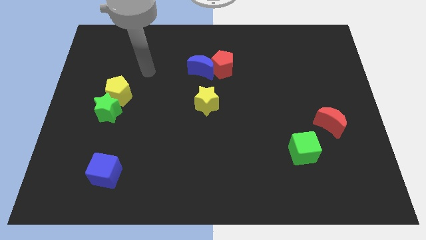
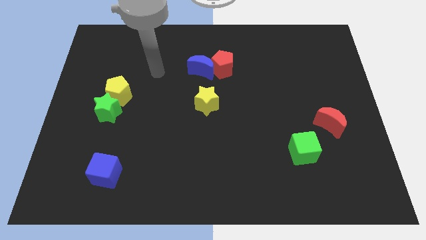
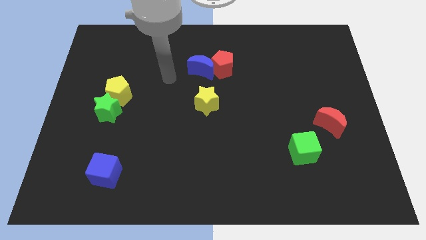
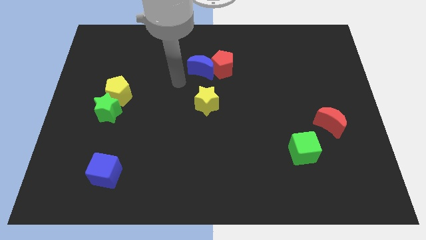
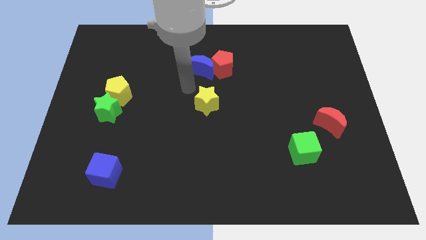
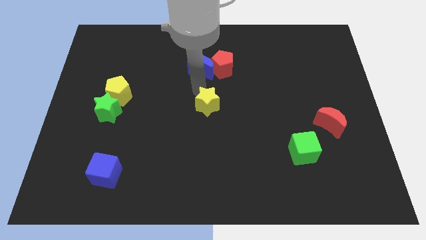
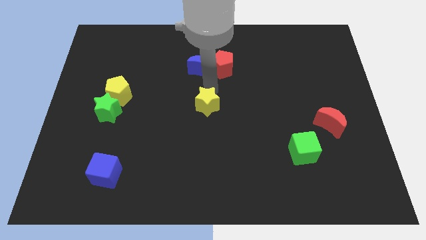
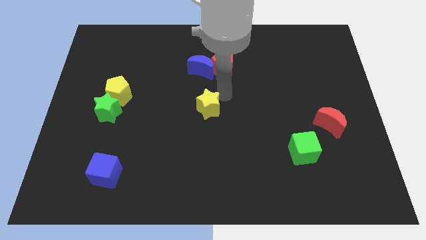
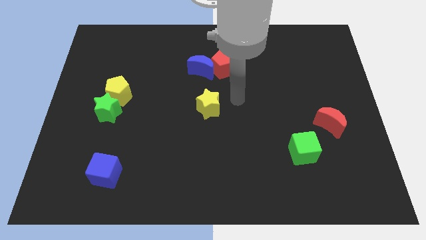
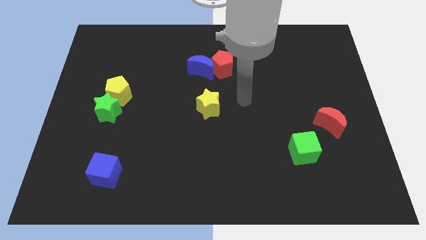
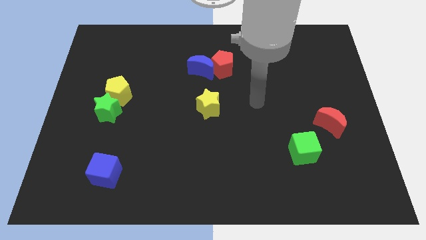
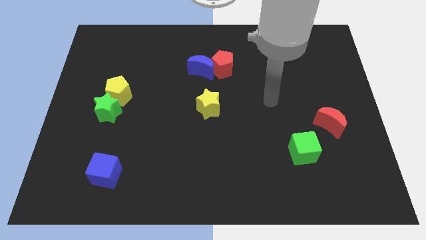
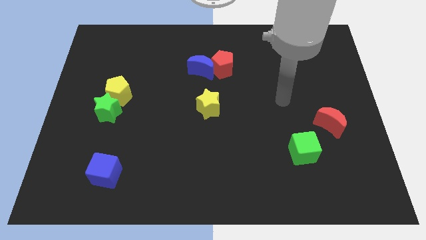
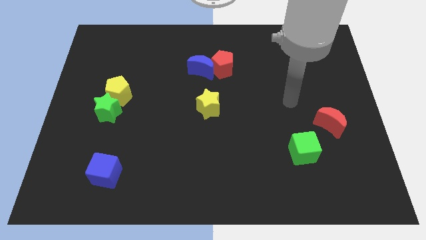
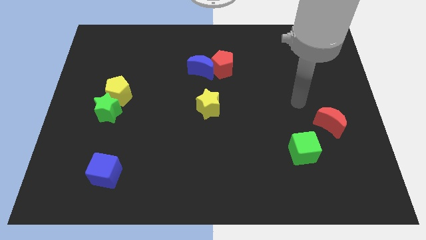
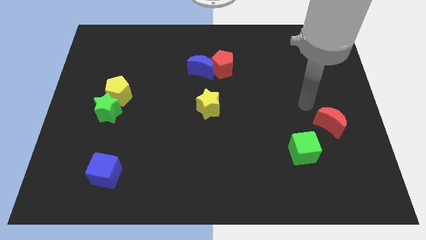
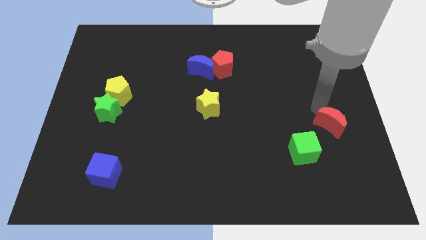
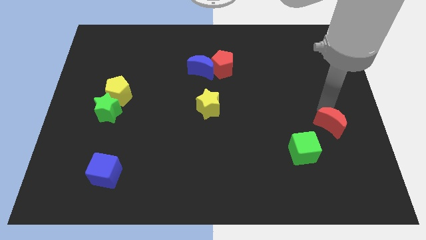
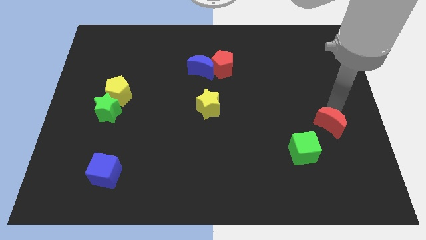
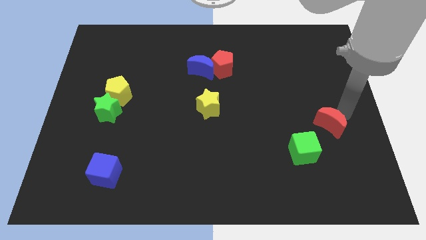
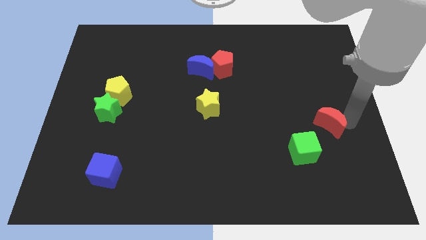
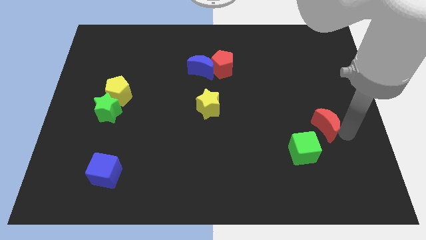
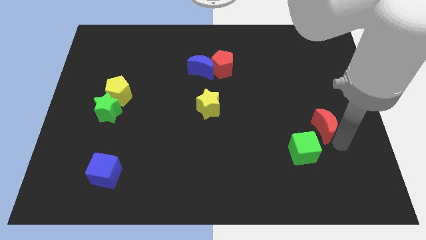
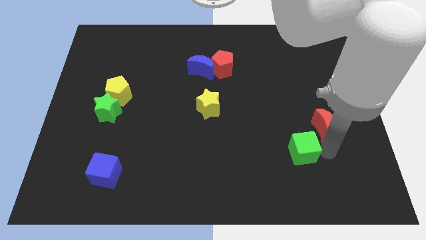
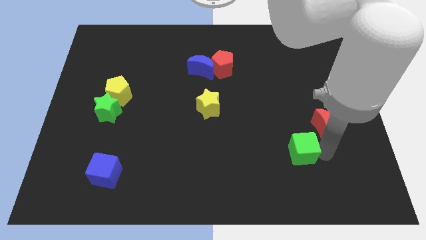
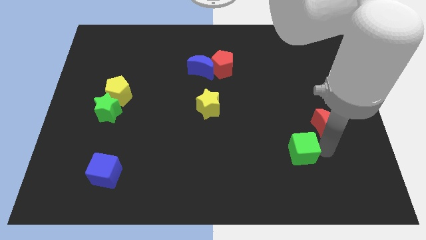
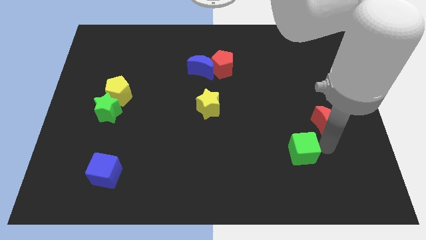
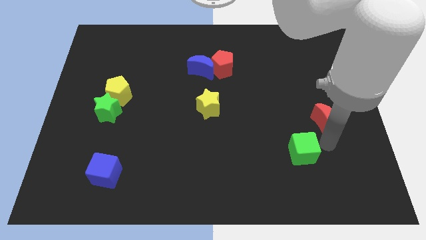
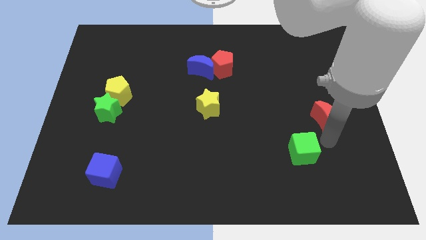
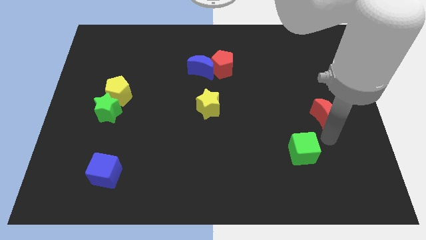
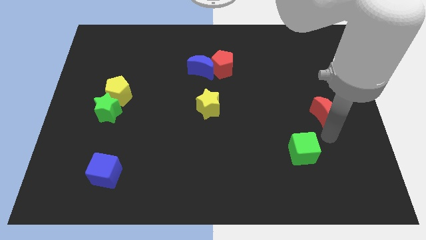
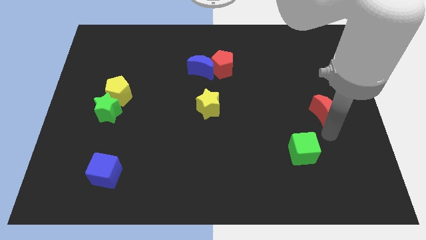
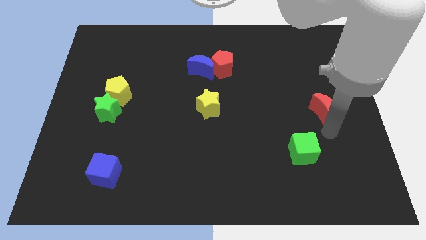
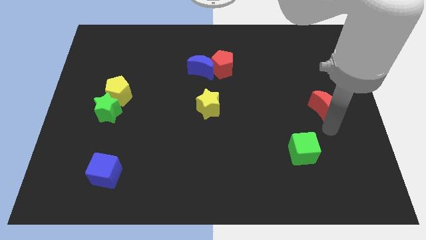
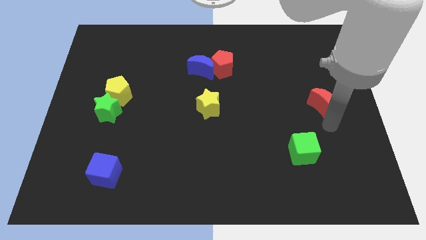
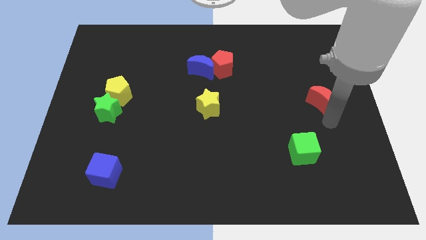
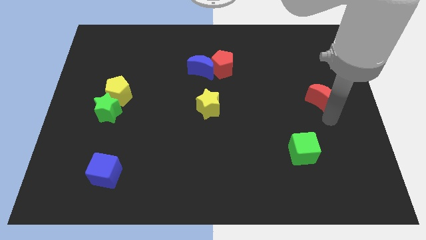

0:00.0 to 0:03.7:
move the red moon up a bit

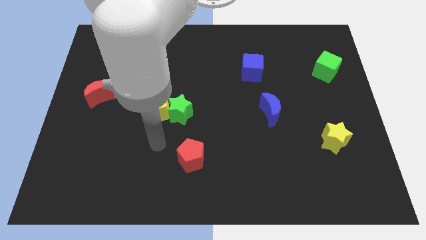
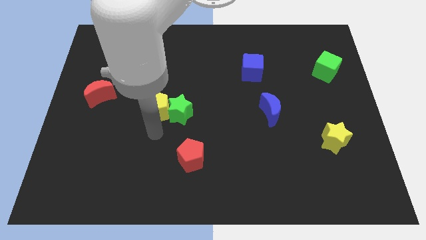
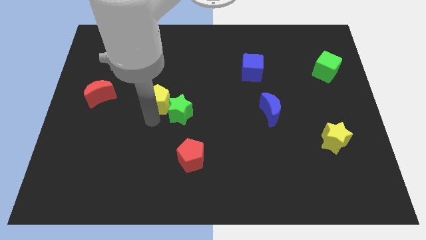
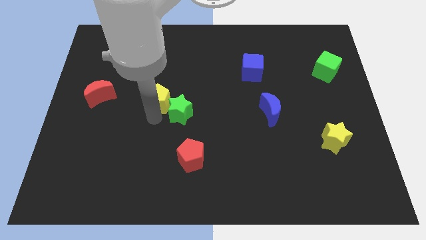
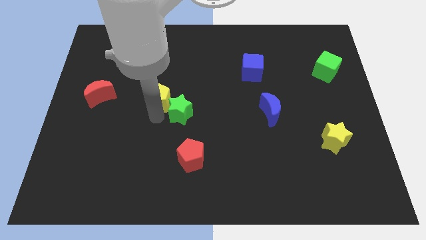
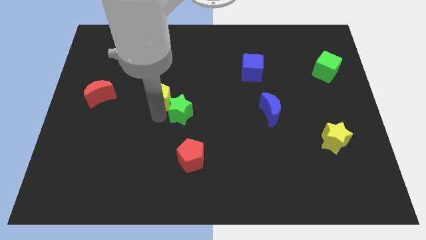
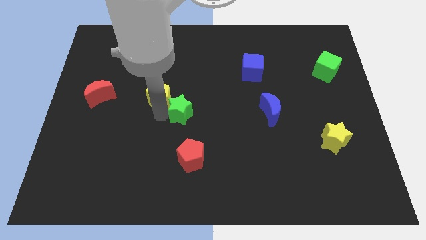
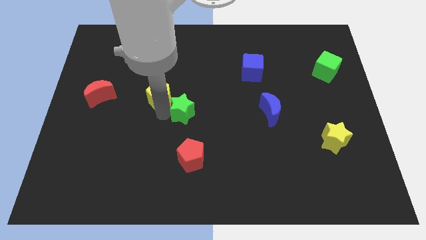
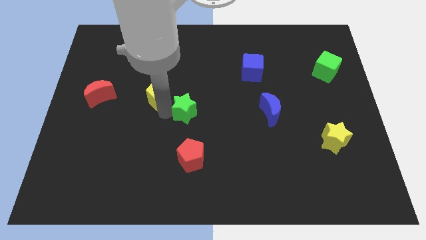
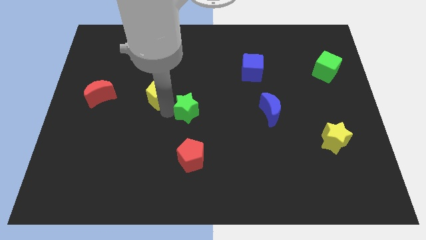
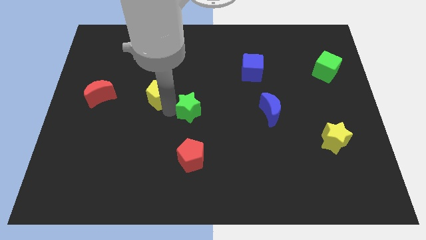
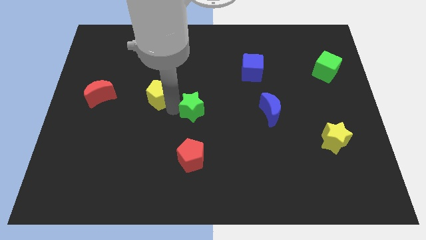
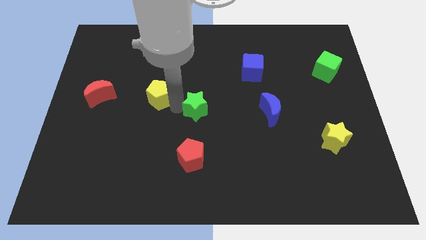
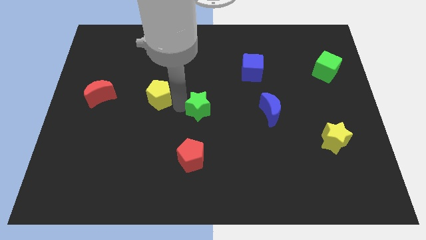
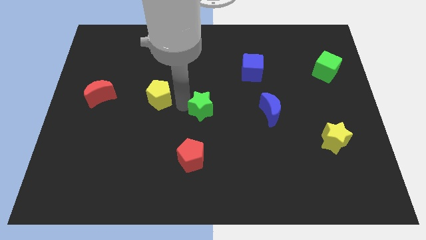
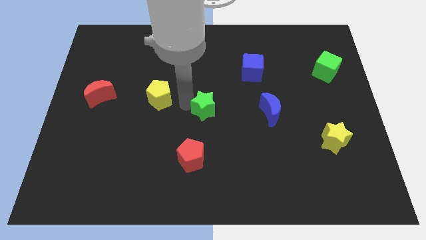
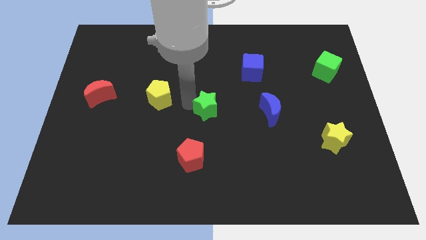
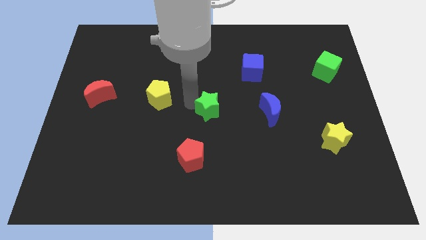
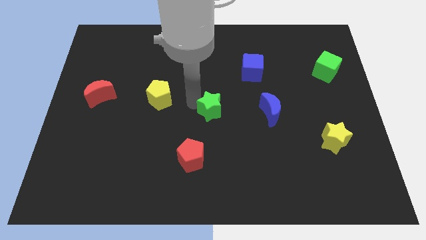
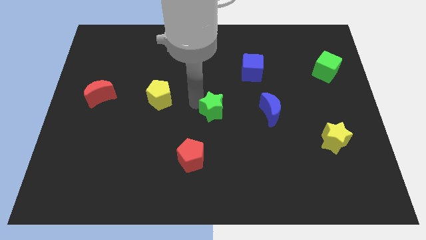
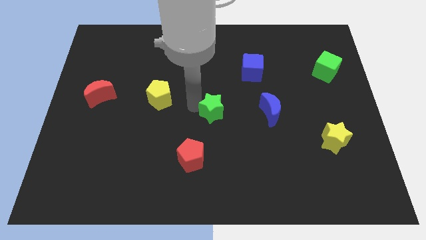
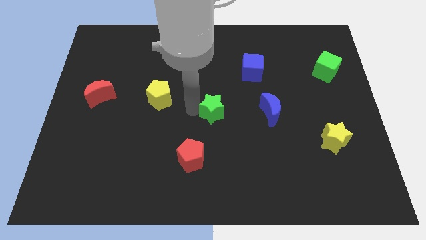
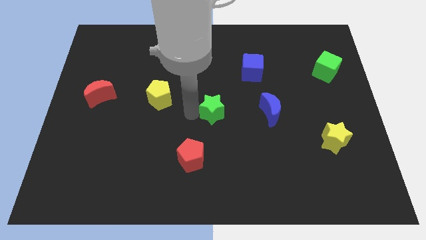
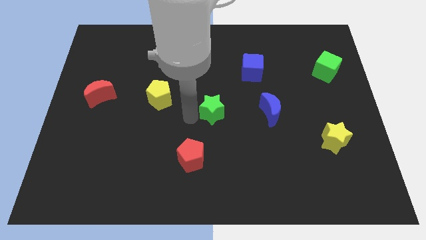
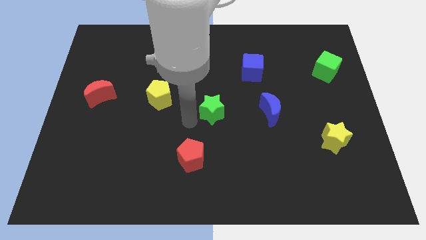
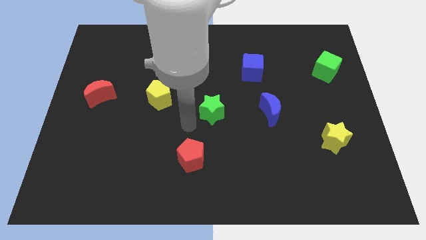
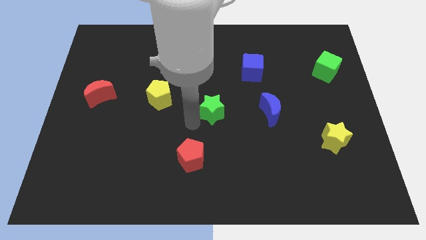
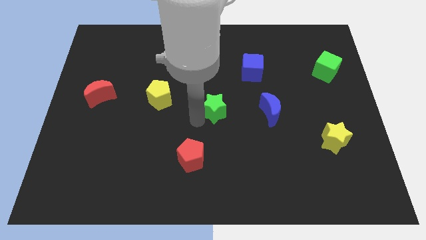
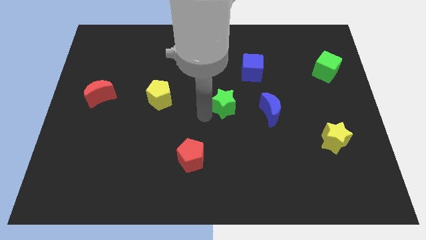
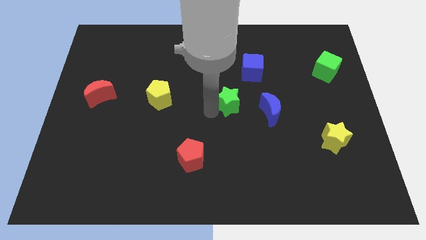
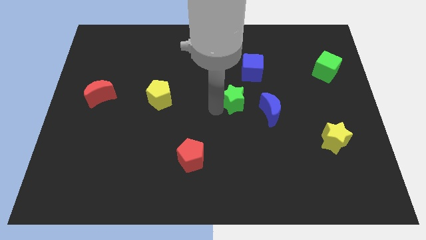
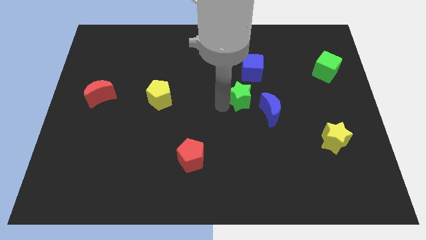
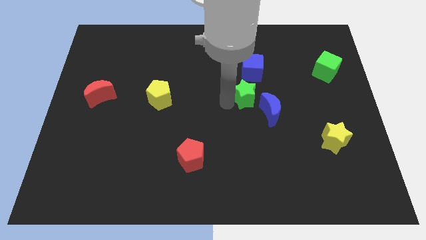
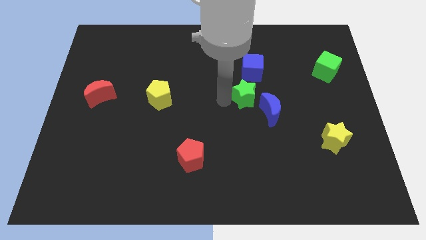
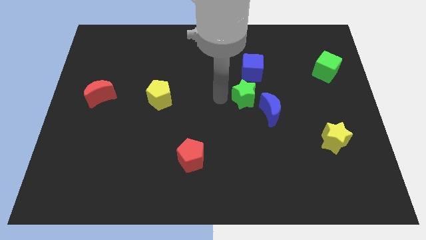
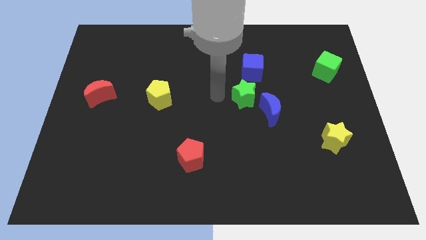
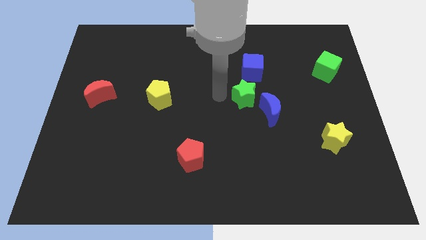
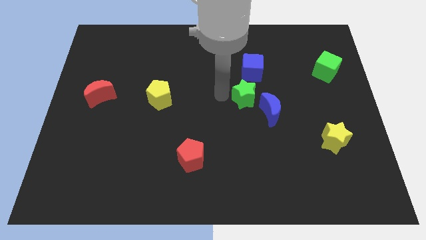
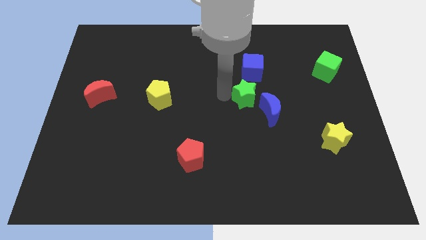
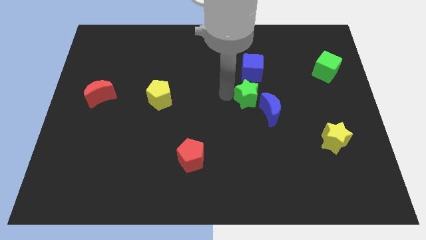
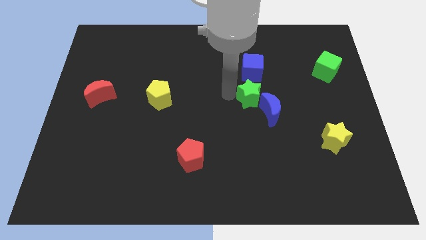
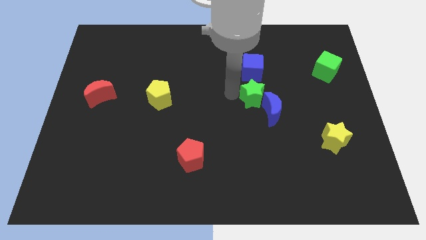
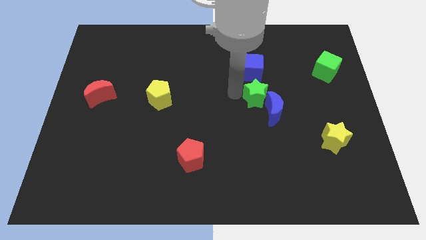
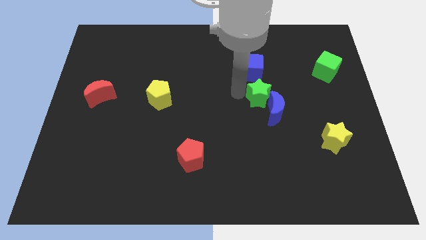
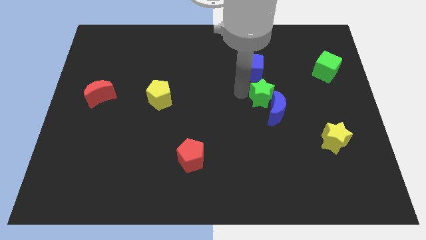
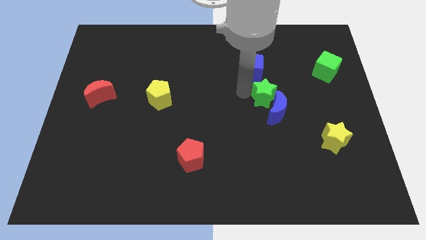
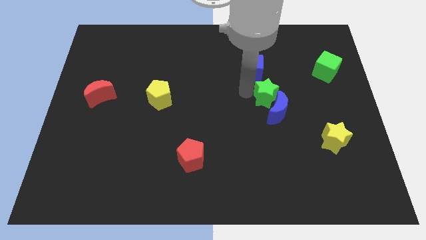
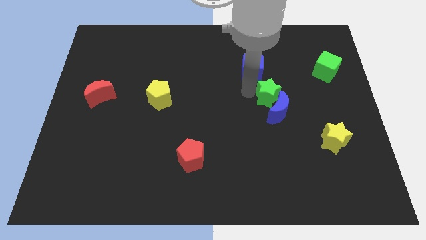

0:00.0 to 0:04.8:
move the green star to the right
